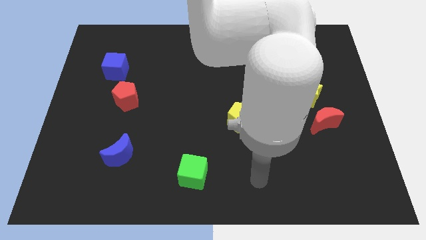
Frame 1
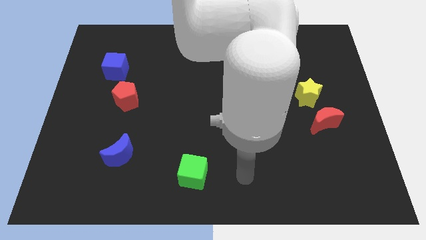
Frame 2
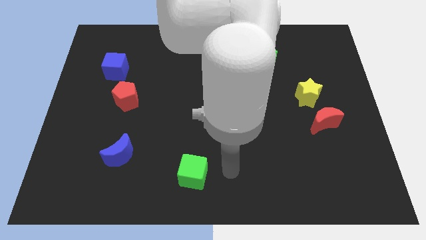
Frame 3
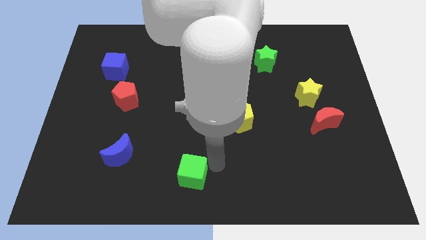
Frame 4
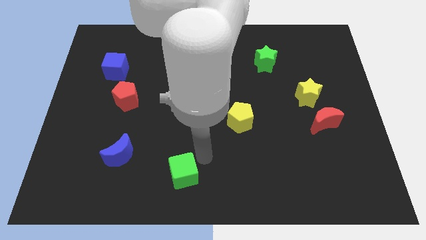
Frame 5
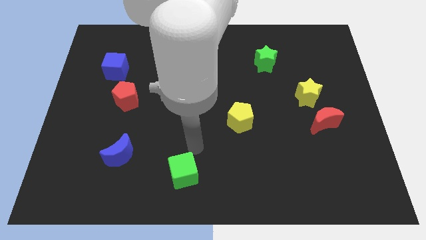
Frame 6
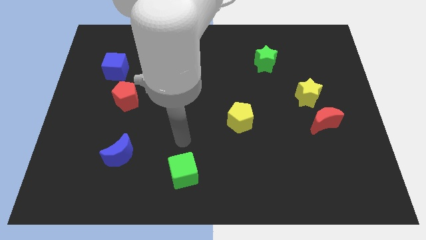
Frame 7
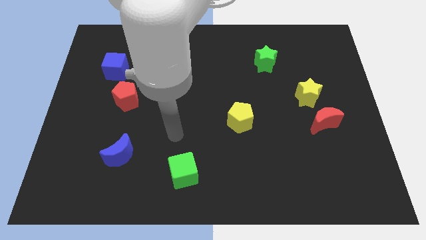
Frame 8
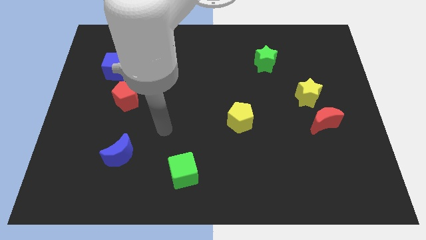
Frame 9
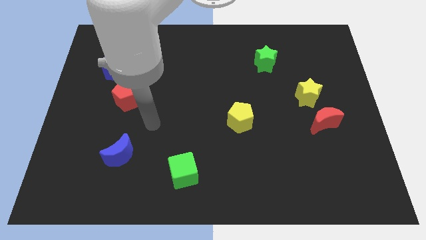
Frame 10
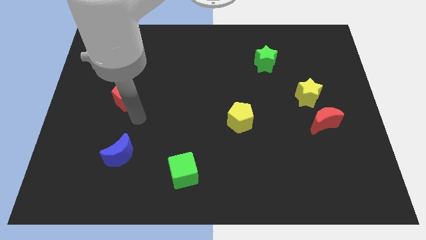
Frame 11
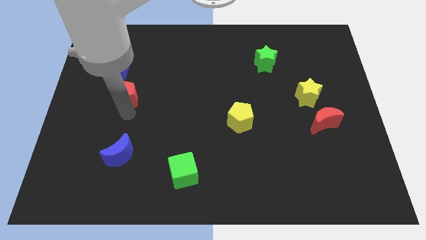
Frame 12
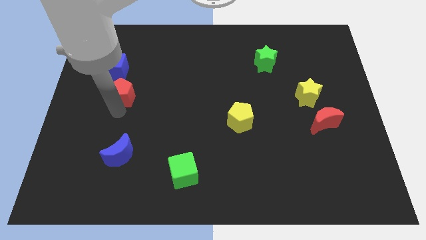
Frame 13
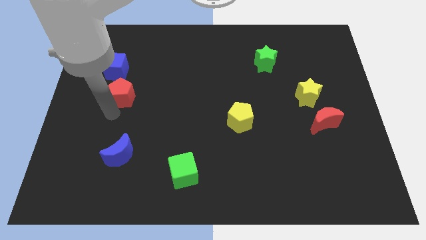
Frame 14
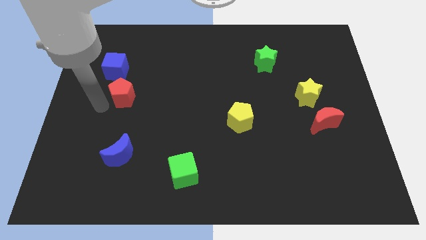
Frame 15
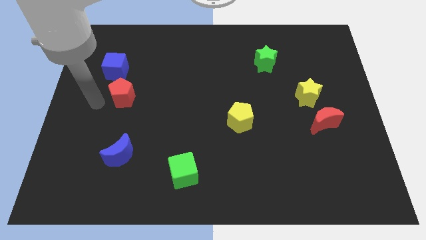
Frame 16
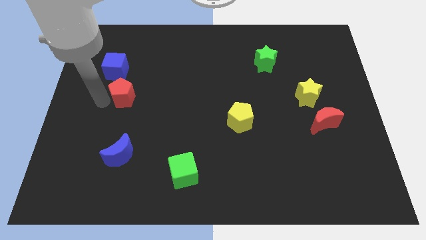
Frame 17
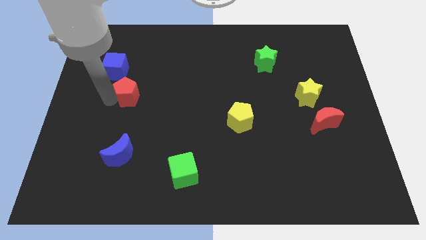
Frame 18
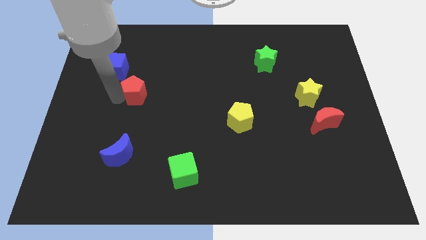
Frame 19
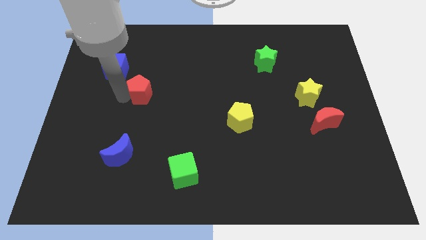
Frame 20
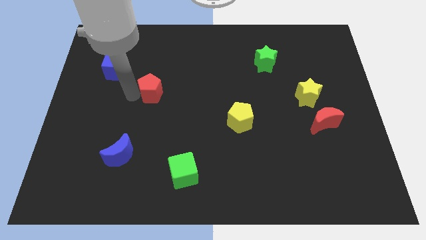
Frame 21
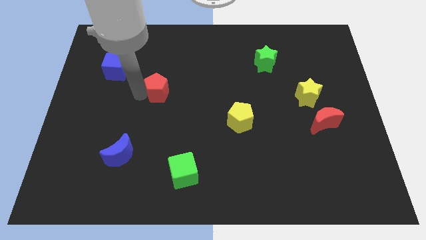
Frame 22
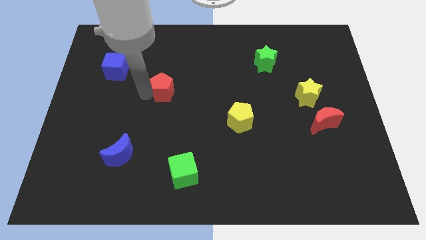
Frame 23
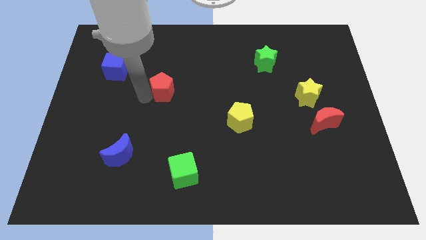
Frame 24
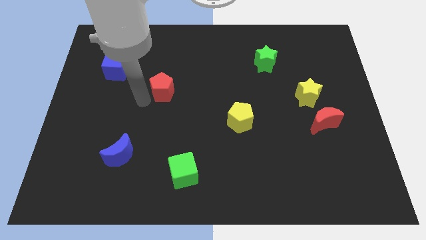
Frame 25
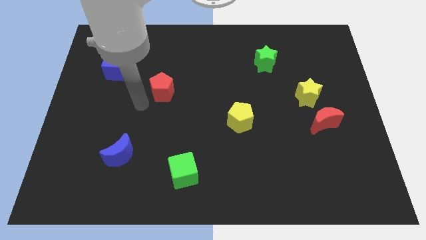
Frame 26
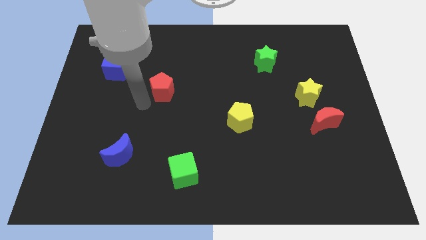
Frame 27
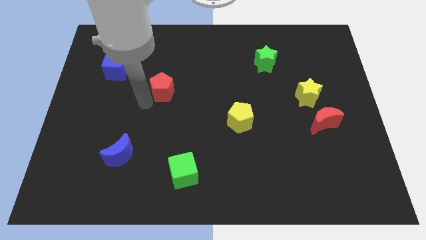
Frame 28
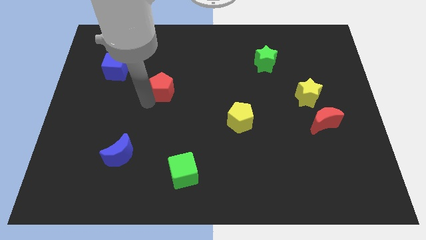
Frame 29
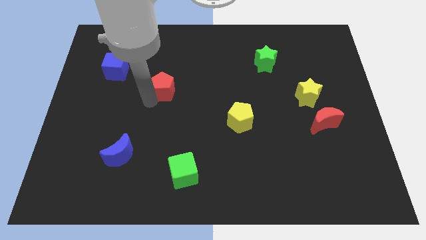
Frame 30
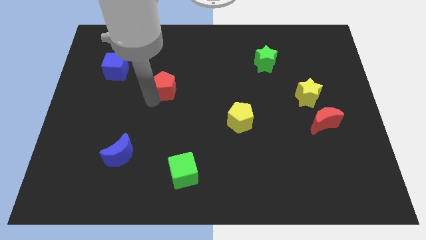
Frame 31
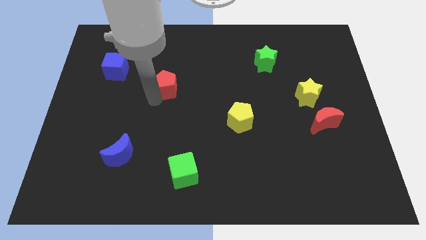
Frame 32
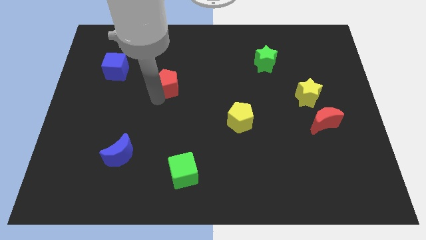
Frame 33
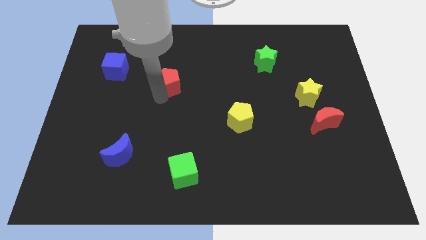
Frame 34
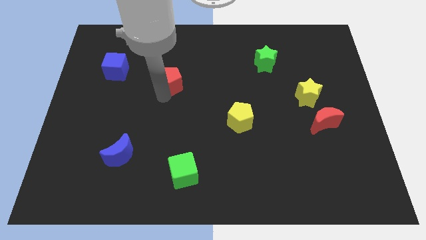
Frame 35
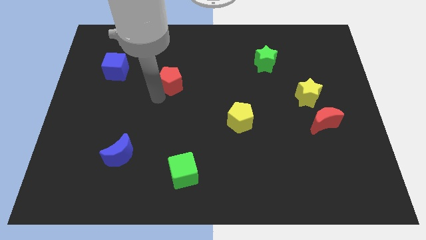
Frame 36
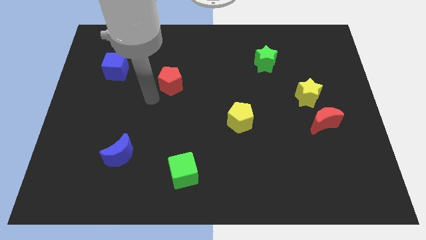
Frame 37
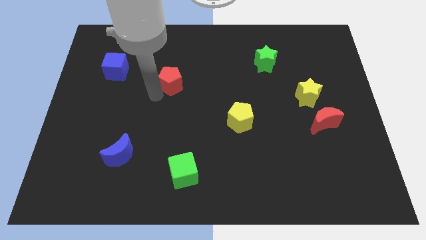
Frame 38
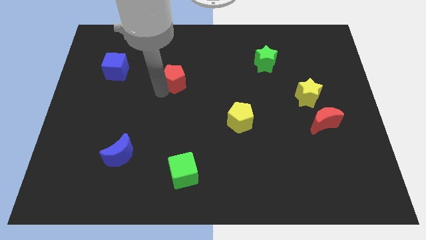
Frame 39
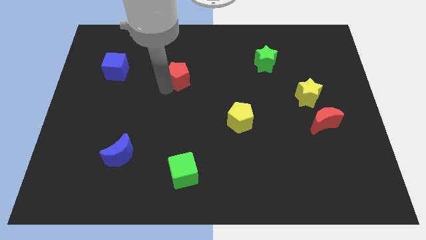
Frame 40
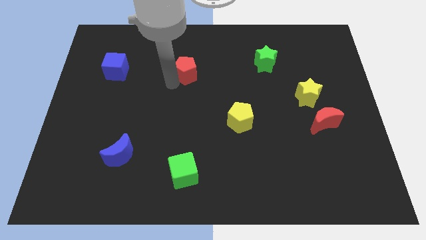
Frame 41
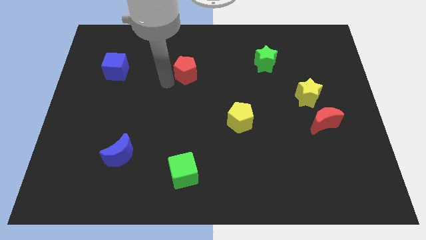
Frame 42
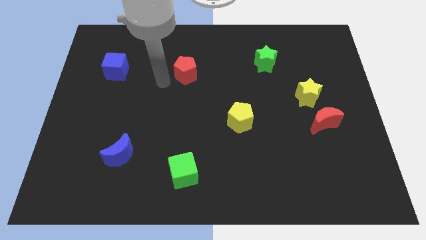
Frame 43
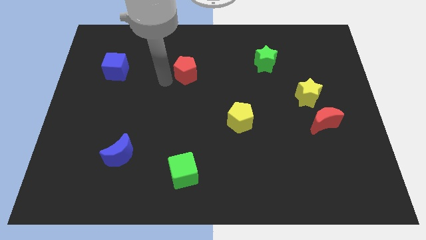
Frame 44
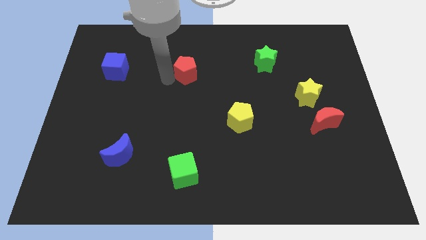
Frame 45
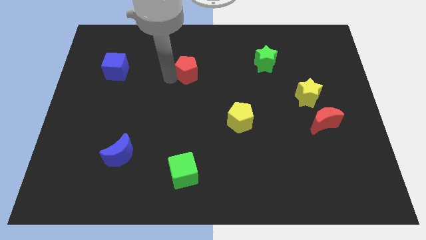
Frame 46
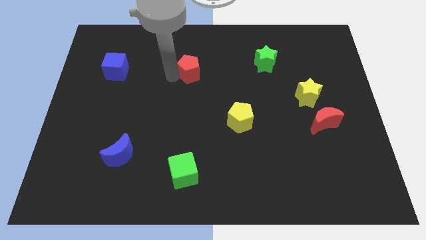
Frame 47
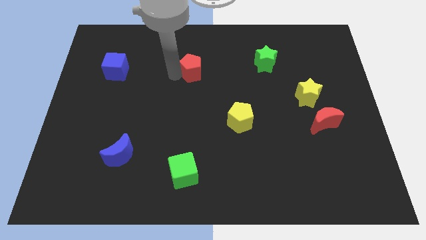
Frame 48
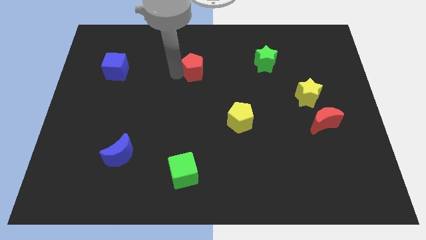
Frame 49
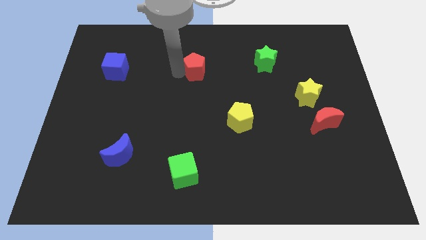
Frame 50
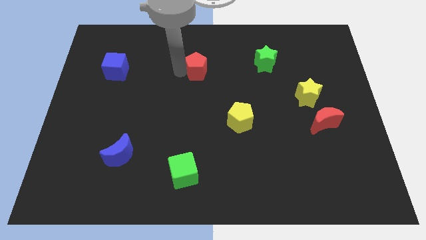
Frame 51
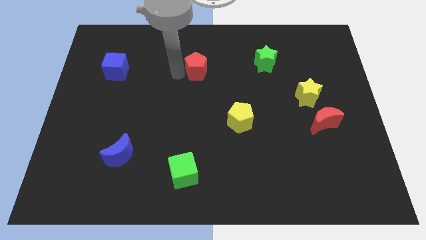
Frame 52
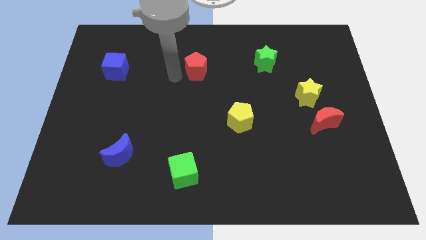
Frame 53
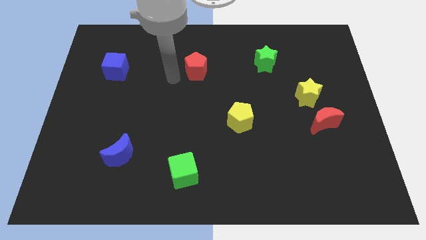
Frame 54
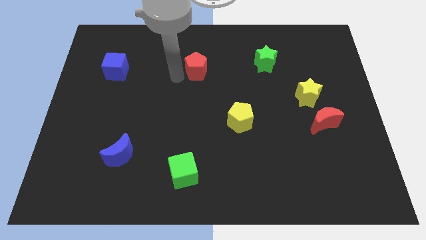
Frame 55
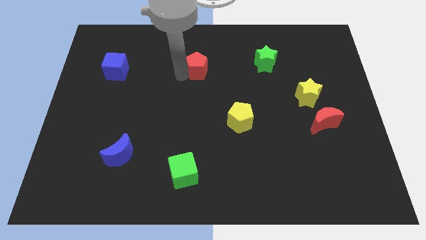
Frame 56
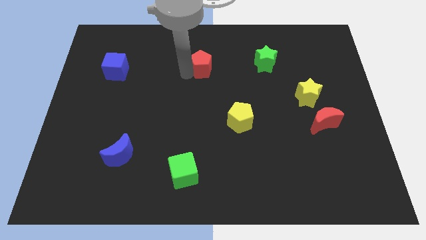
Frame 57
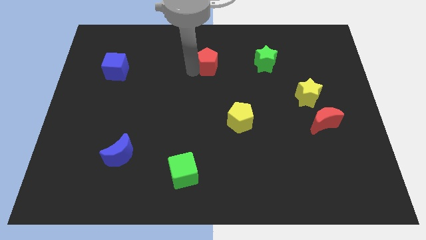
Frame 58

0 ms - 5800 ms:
slide the red pentagon to the left side of the green star

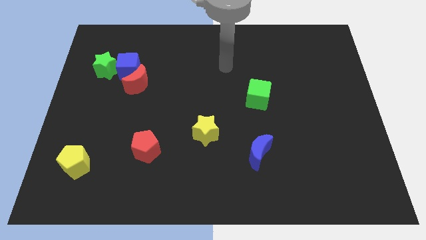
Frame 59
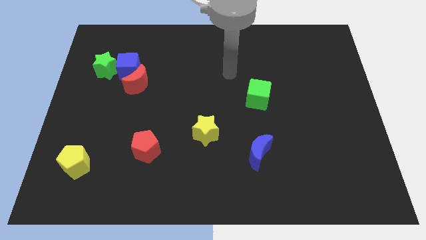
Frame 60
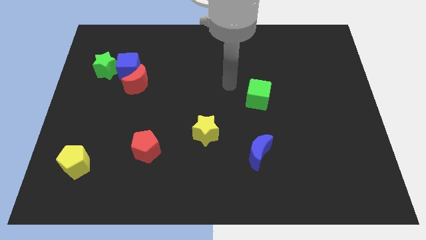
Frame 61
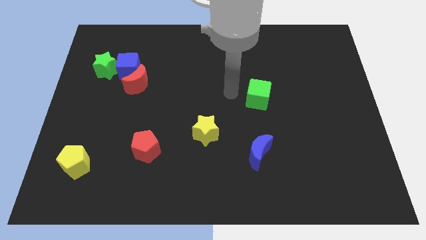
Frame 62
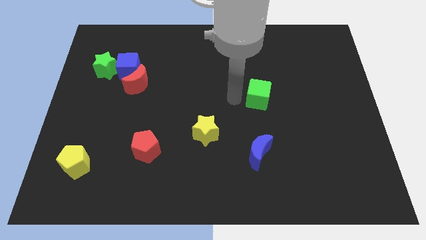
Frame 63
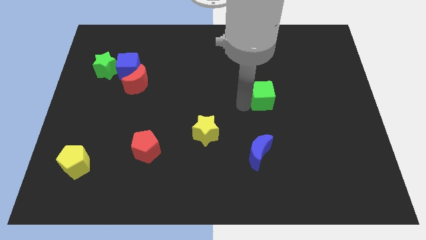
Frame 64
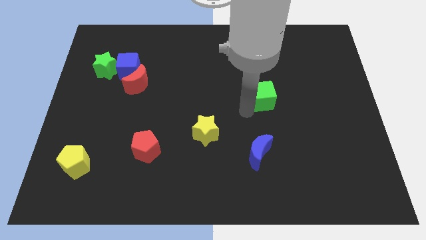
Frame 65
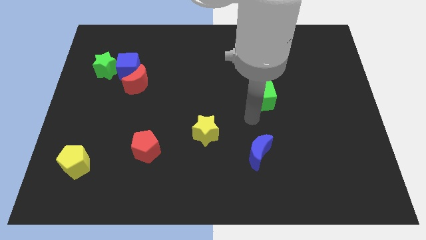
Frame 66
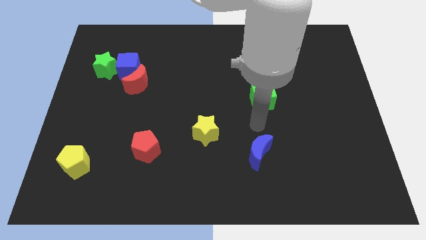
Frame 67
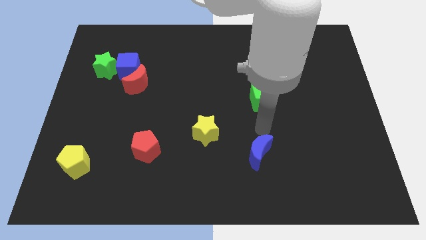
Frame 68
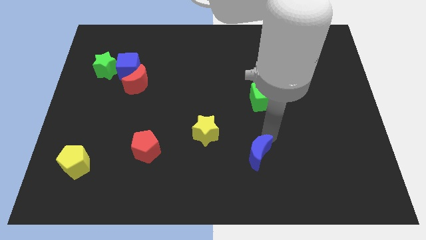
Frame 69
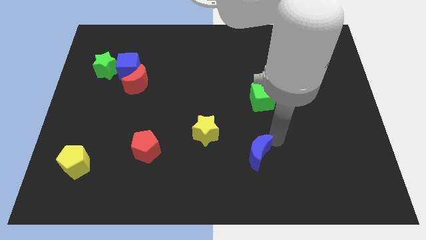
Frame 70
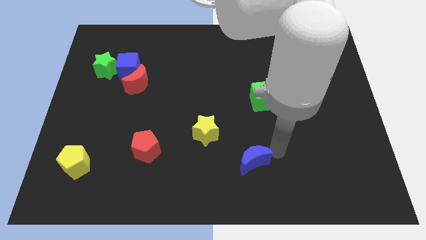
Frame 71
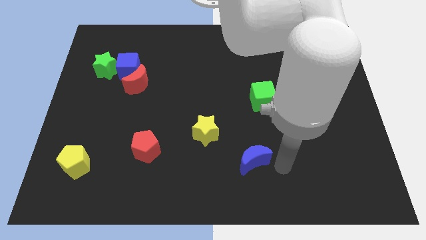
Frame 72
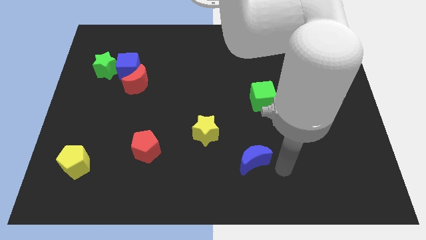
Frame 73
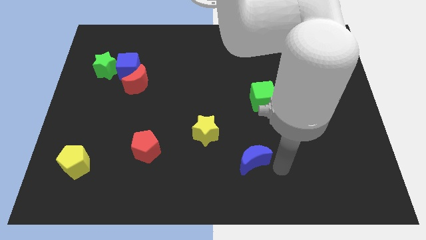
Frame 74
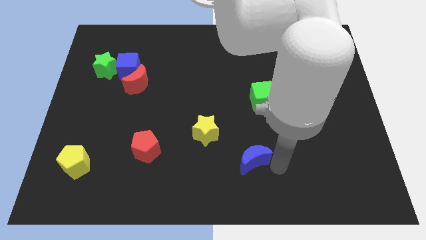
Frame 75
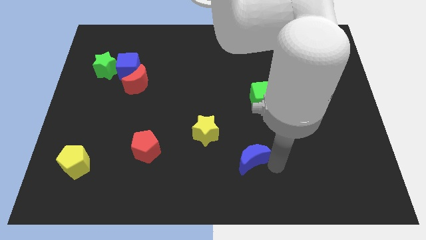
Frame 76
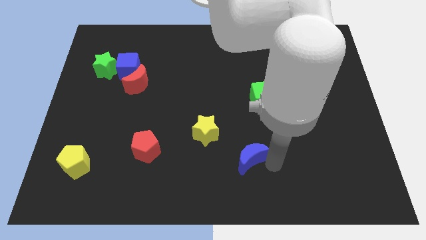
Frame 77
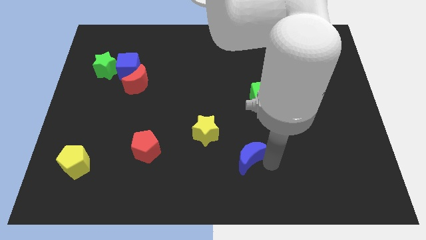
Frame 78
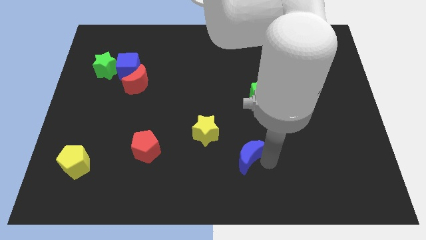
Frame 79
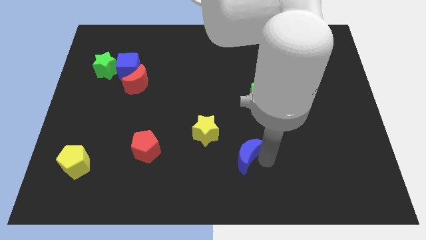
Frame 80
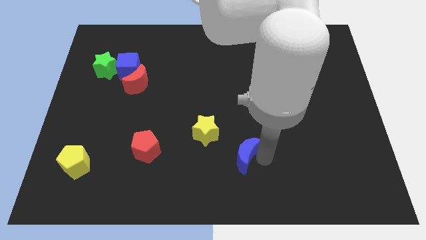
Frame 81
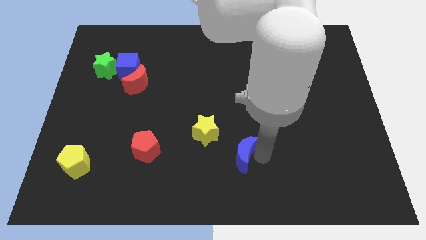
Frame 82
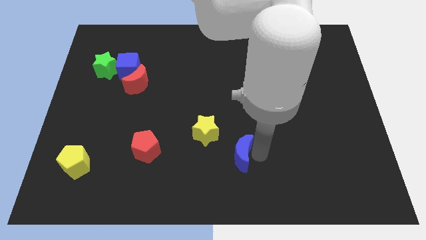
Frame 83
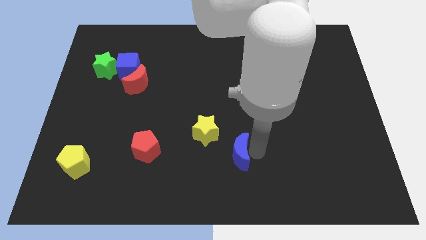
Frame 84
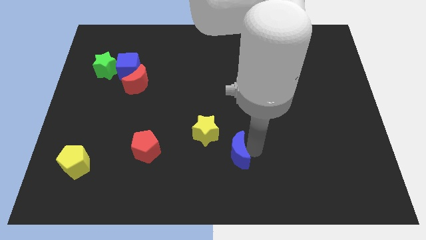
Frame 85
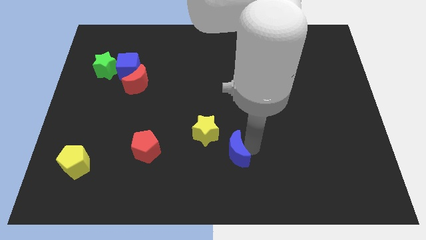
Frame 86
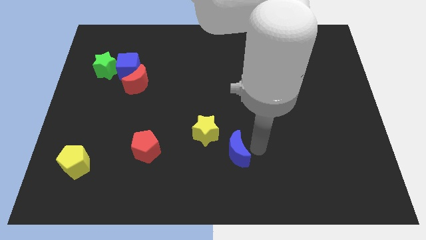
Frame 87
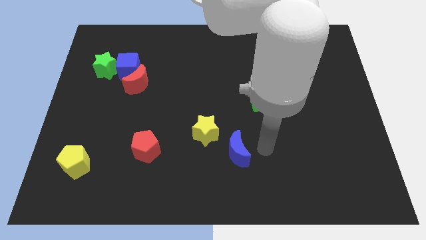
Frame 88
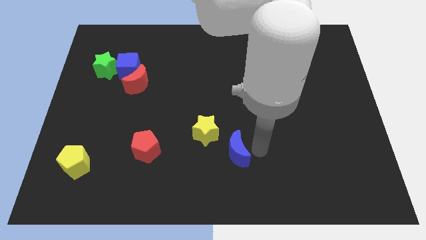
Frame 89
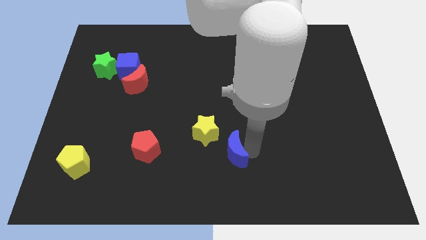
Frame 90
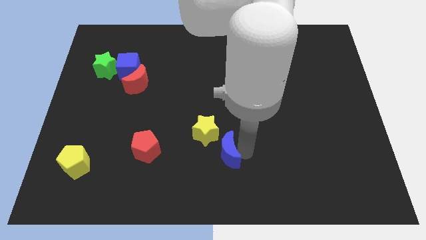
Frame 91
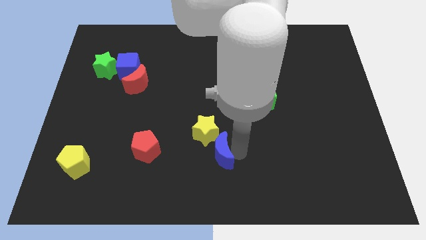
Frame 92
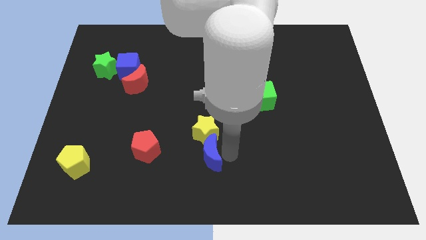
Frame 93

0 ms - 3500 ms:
move the blue moon diagonally down and to the left of the yellow star
